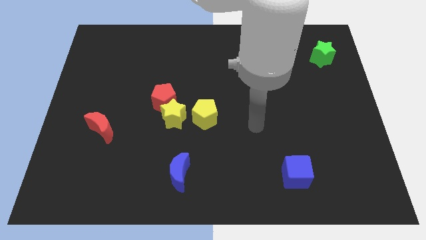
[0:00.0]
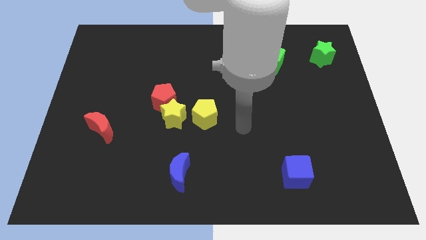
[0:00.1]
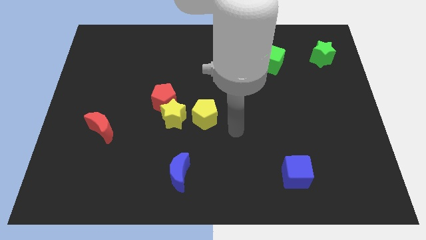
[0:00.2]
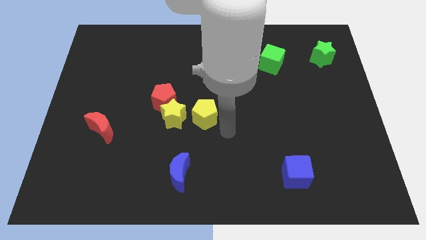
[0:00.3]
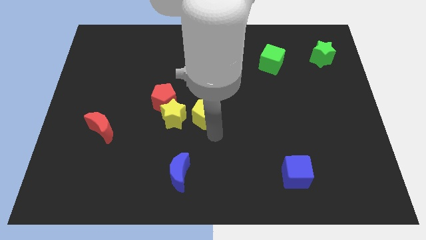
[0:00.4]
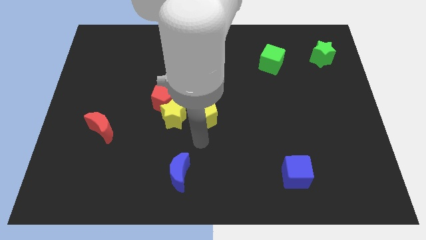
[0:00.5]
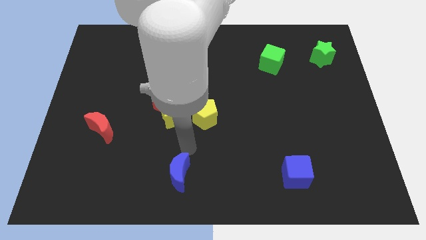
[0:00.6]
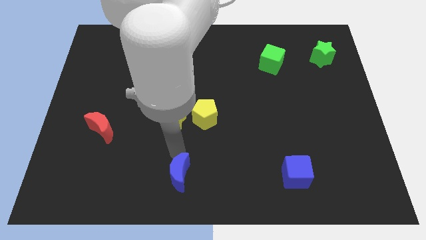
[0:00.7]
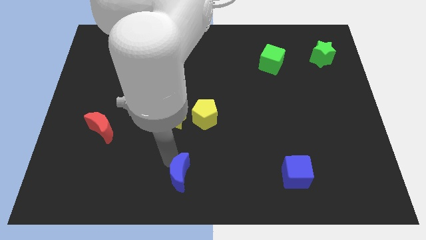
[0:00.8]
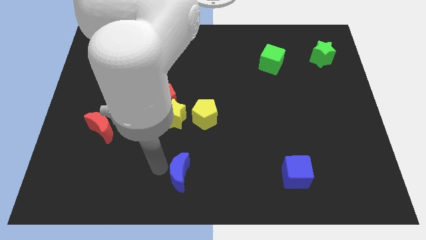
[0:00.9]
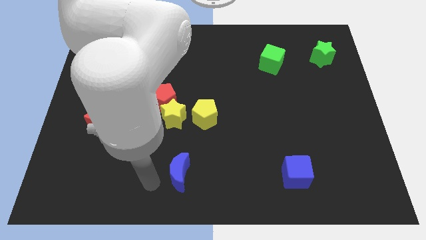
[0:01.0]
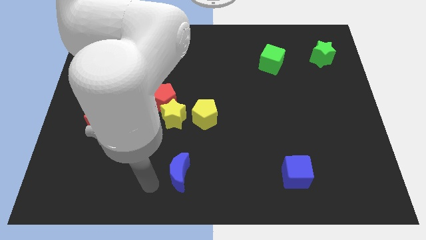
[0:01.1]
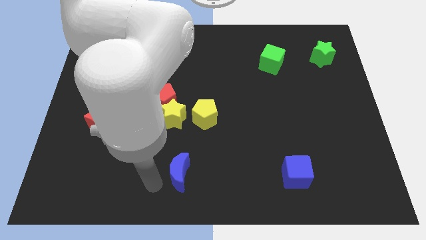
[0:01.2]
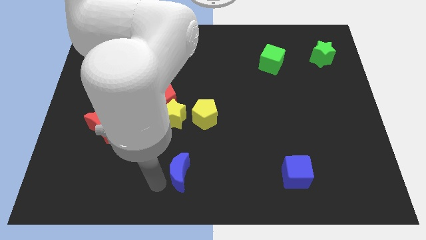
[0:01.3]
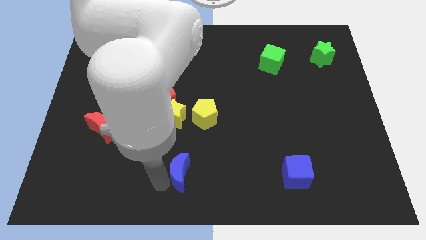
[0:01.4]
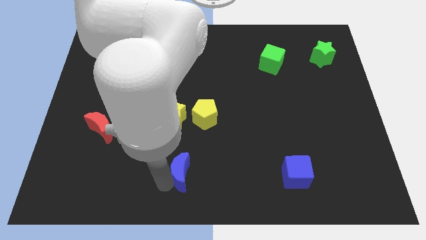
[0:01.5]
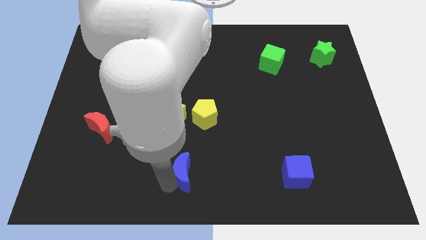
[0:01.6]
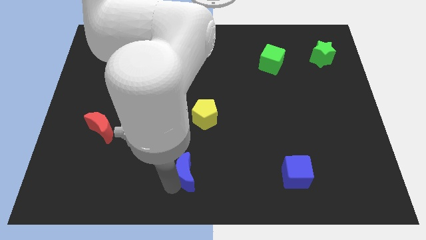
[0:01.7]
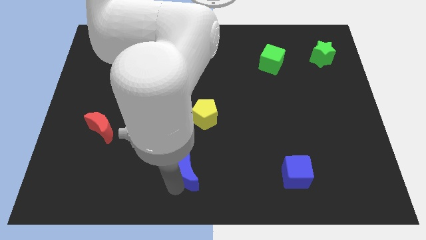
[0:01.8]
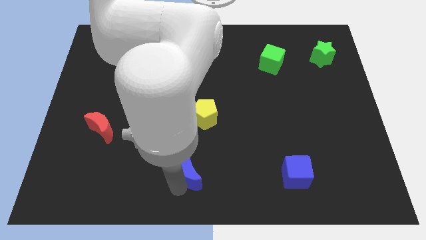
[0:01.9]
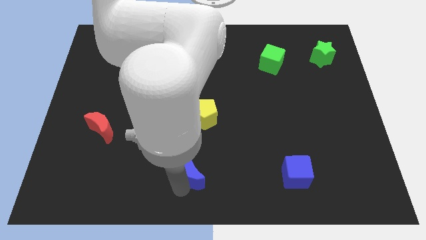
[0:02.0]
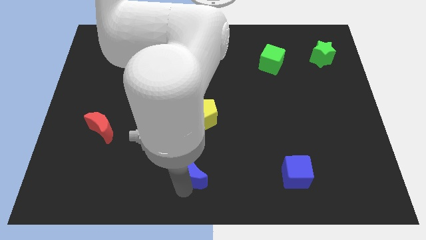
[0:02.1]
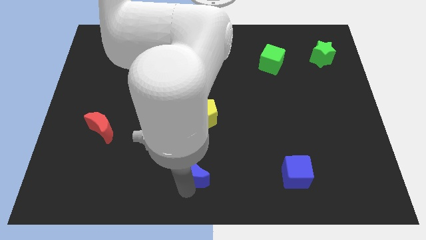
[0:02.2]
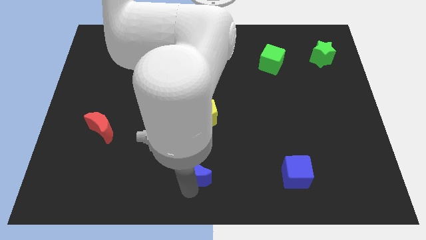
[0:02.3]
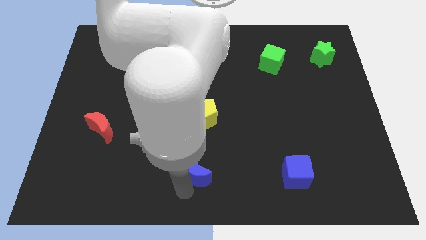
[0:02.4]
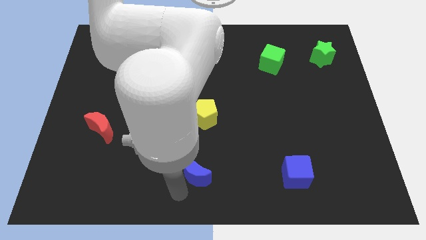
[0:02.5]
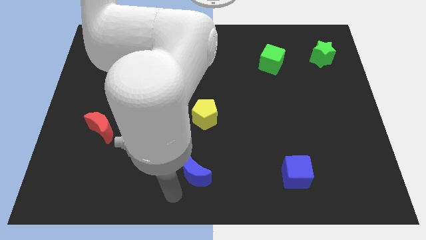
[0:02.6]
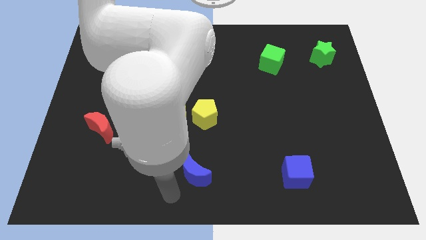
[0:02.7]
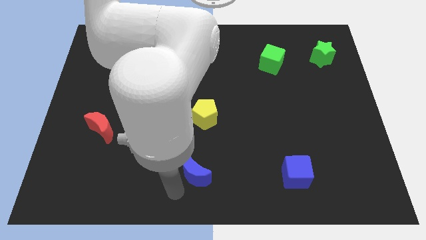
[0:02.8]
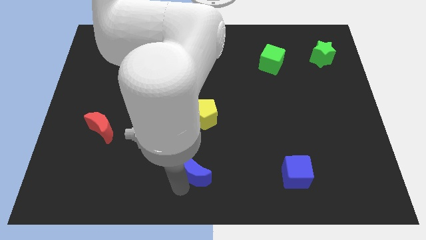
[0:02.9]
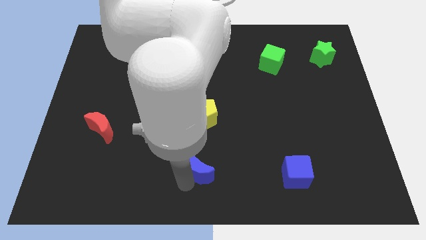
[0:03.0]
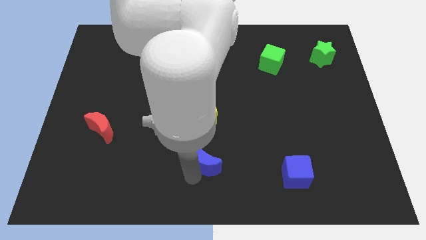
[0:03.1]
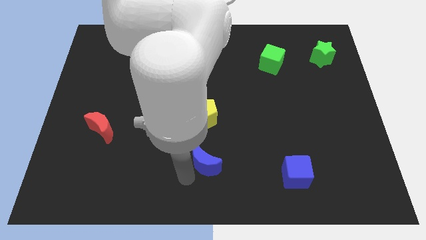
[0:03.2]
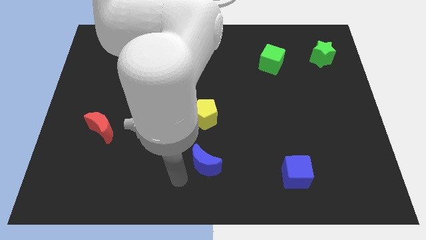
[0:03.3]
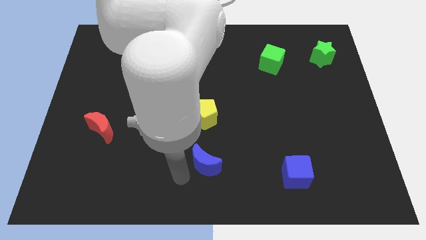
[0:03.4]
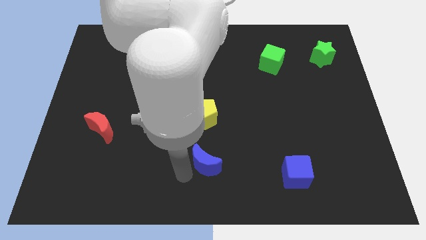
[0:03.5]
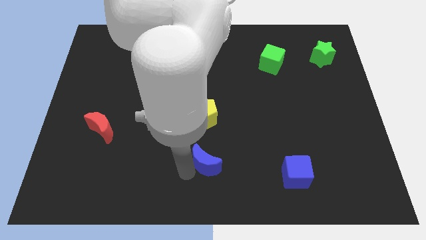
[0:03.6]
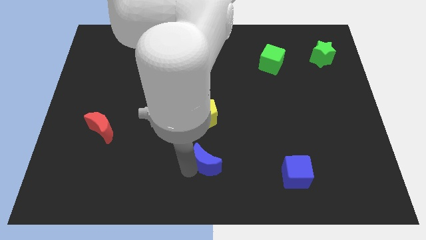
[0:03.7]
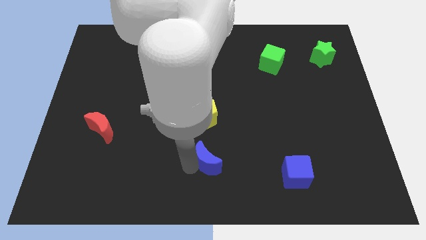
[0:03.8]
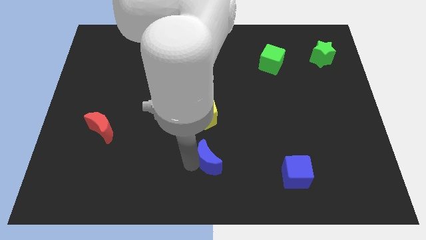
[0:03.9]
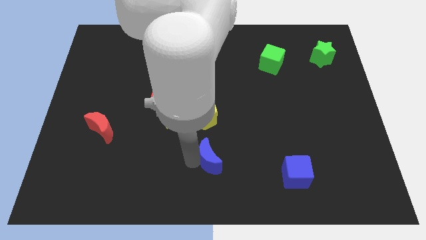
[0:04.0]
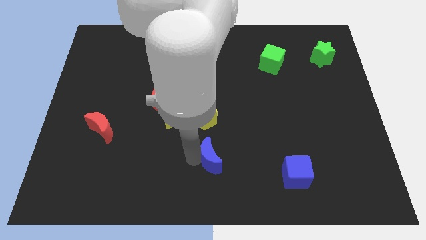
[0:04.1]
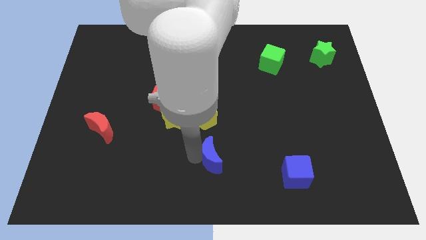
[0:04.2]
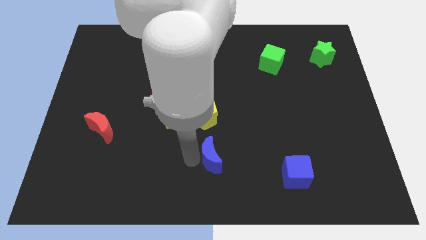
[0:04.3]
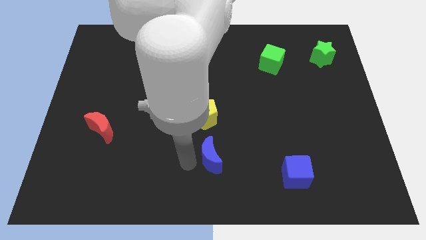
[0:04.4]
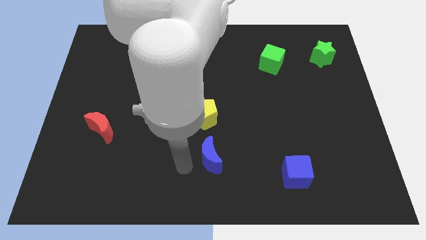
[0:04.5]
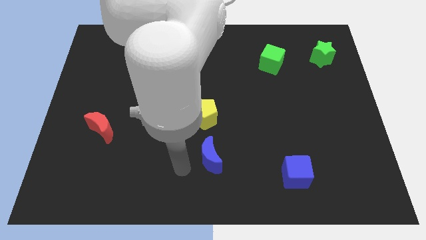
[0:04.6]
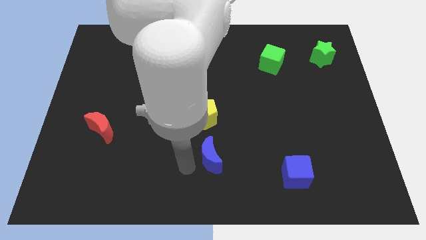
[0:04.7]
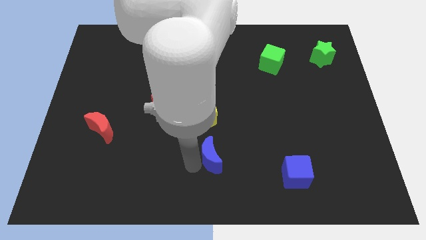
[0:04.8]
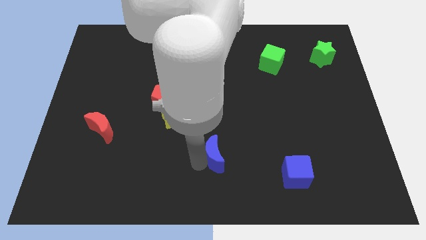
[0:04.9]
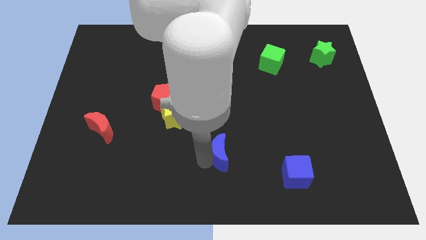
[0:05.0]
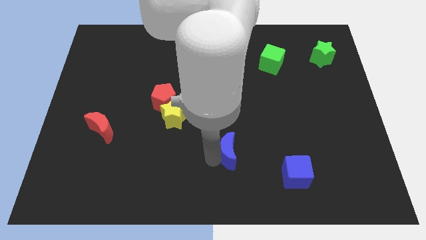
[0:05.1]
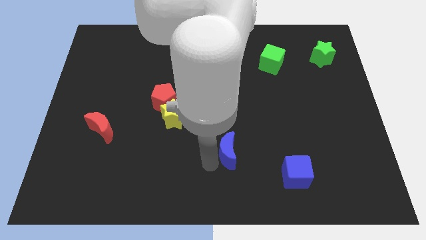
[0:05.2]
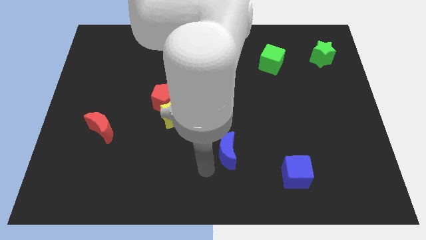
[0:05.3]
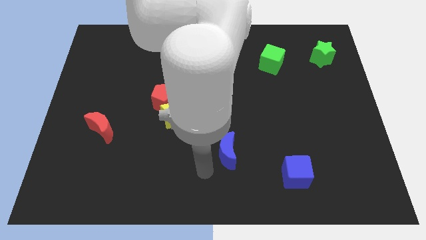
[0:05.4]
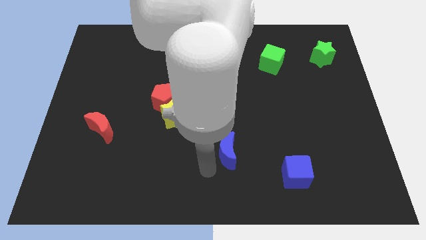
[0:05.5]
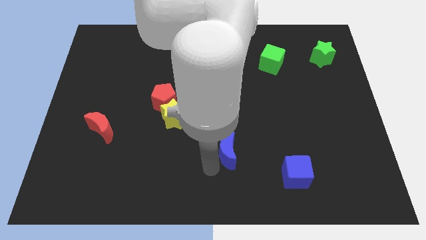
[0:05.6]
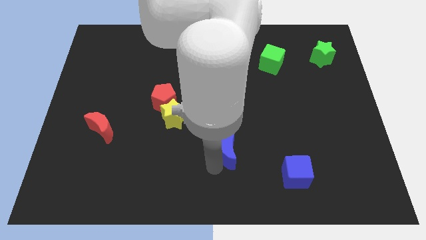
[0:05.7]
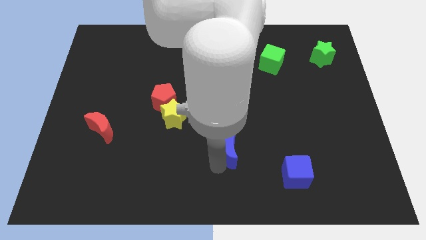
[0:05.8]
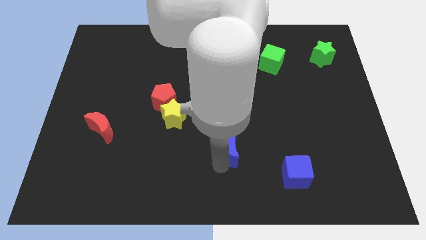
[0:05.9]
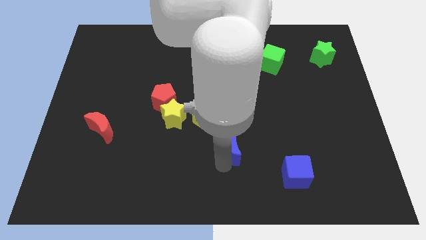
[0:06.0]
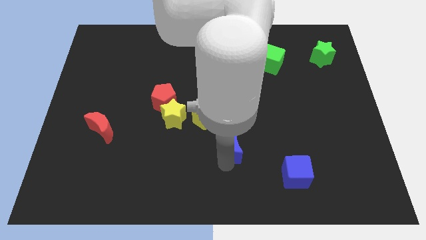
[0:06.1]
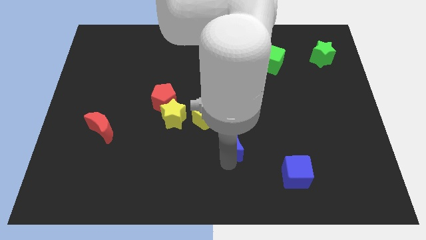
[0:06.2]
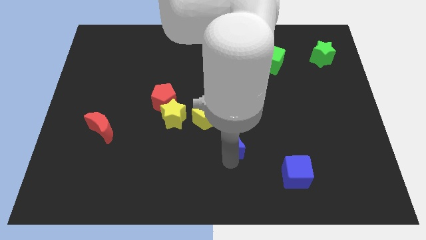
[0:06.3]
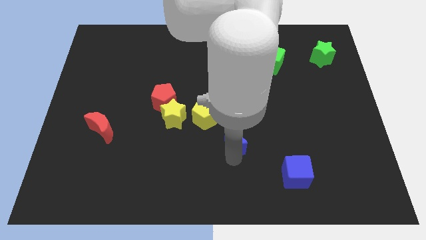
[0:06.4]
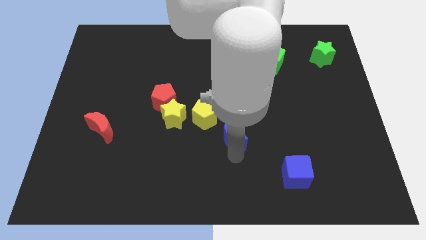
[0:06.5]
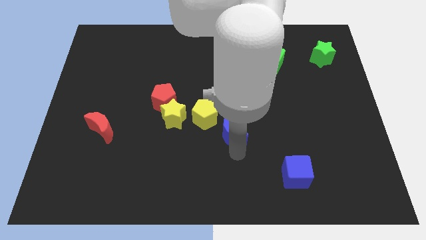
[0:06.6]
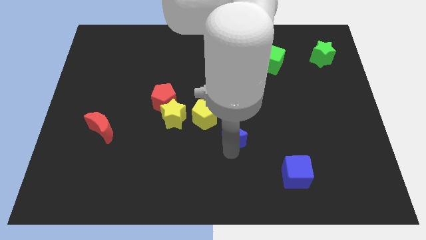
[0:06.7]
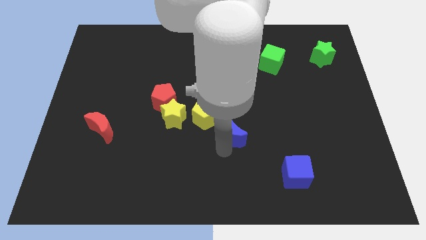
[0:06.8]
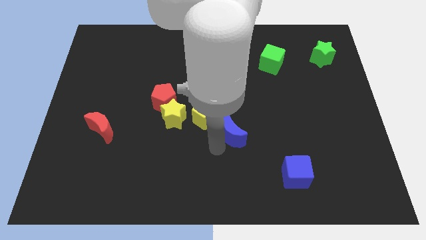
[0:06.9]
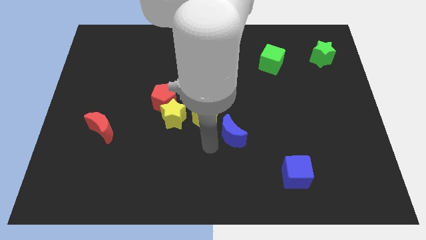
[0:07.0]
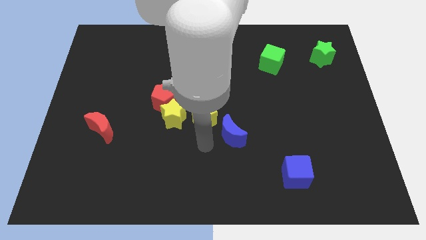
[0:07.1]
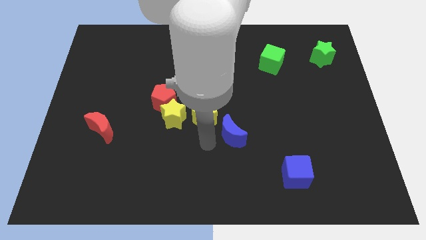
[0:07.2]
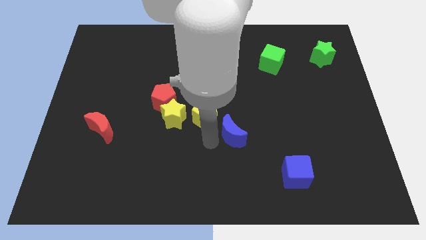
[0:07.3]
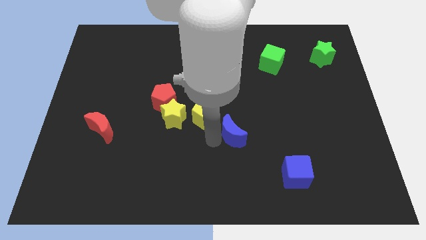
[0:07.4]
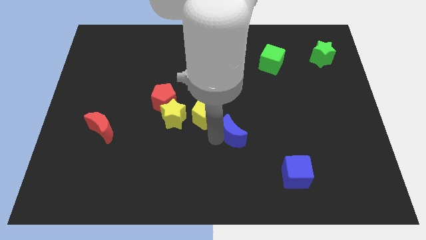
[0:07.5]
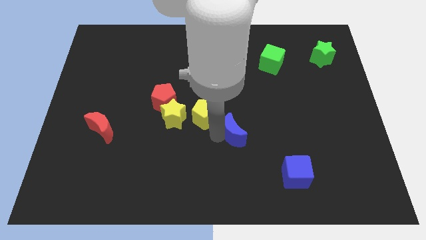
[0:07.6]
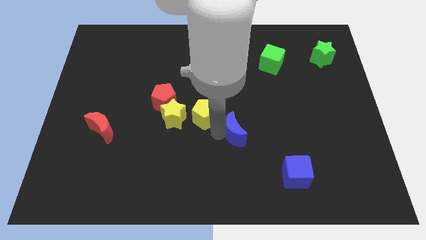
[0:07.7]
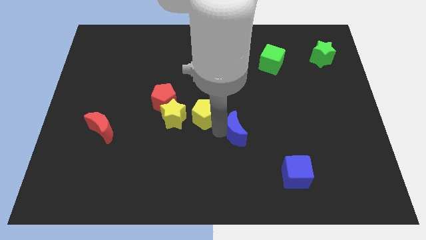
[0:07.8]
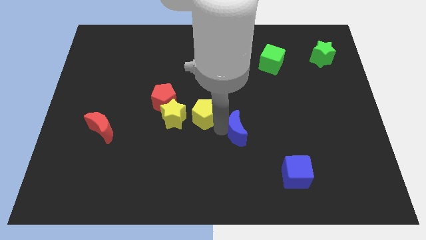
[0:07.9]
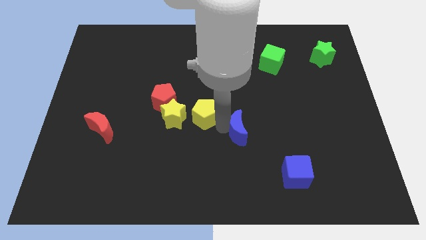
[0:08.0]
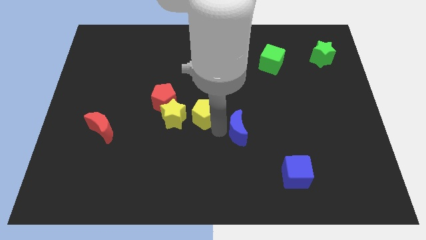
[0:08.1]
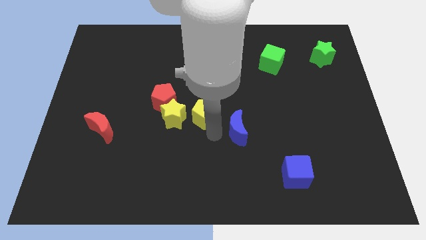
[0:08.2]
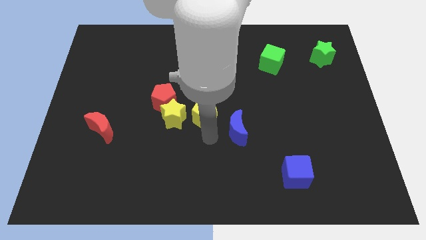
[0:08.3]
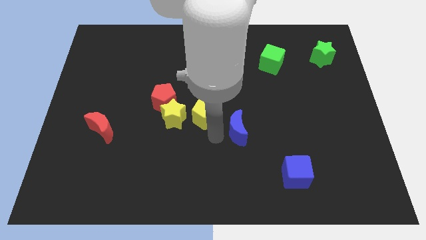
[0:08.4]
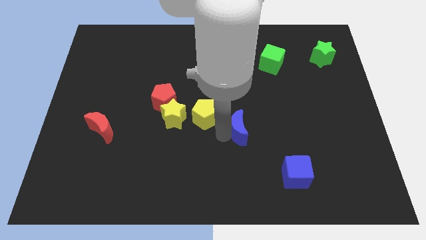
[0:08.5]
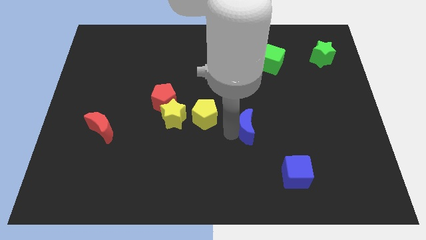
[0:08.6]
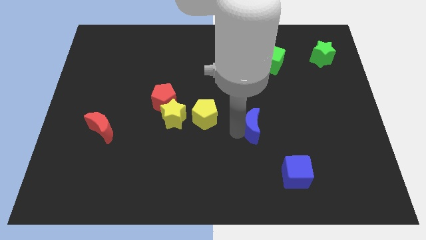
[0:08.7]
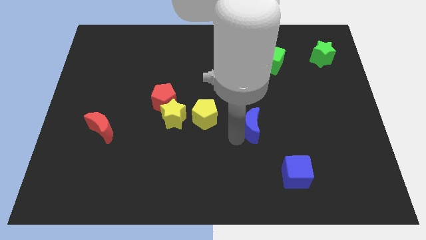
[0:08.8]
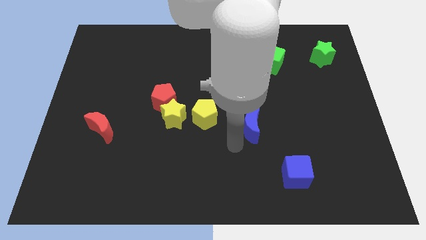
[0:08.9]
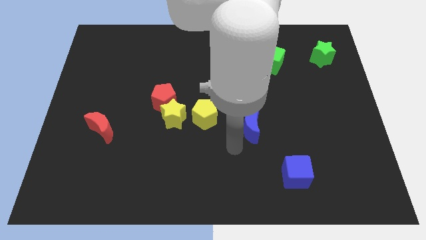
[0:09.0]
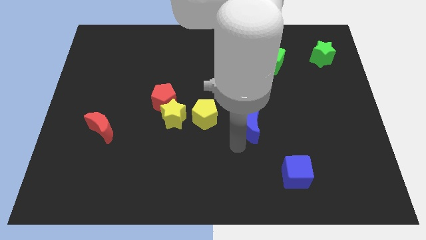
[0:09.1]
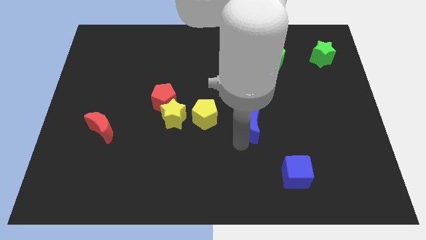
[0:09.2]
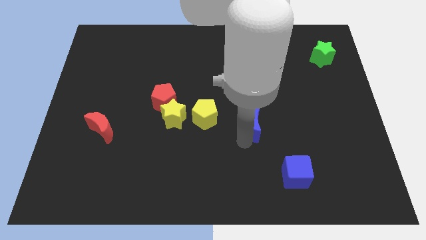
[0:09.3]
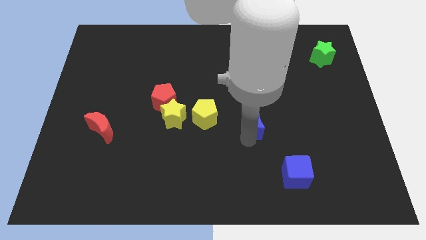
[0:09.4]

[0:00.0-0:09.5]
move the blue moon up and to the right
